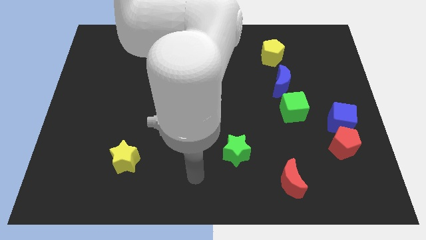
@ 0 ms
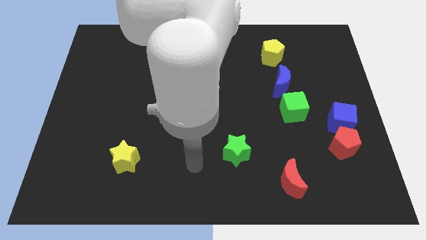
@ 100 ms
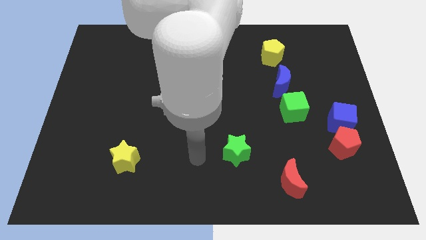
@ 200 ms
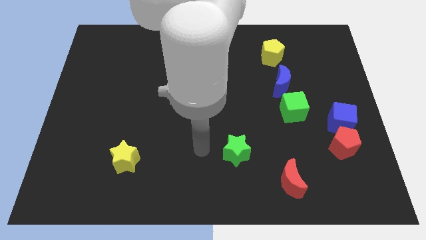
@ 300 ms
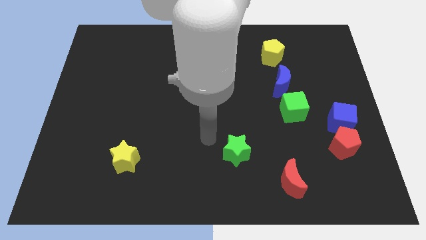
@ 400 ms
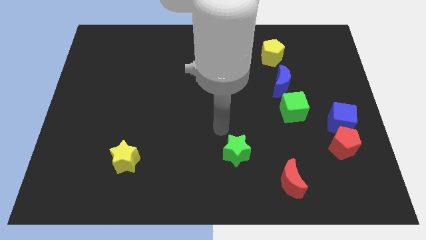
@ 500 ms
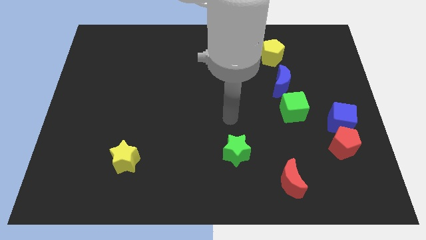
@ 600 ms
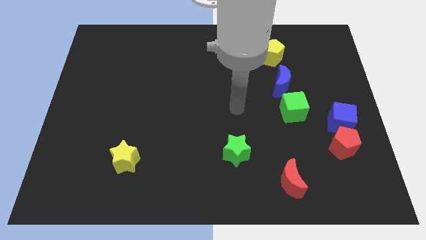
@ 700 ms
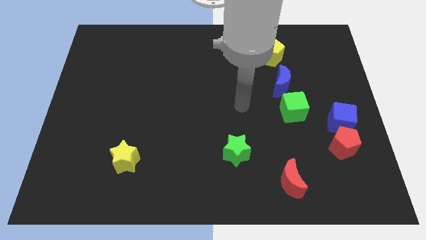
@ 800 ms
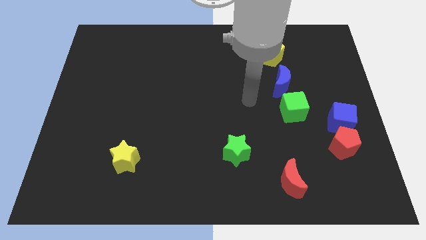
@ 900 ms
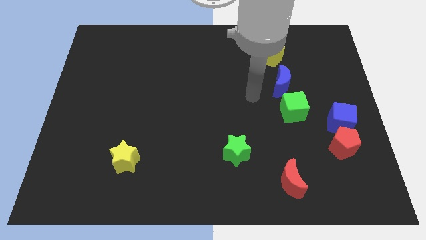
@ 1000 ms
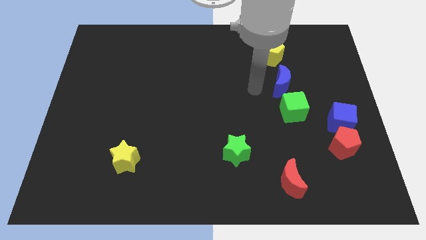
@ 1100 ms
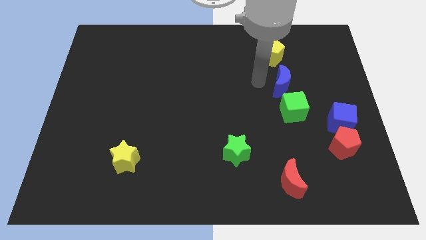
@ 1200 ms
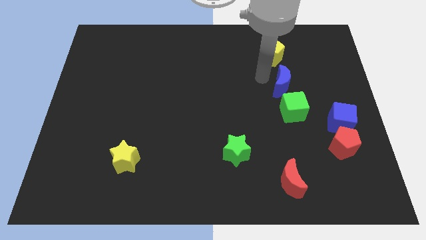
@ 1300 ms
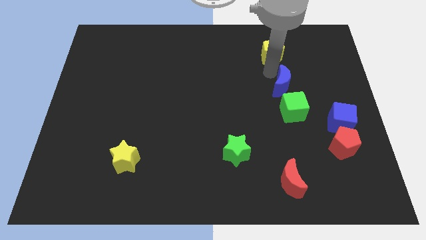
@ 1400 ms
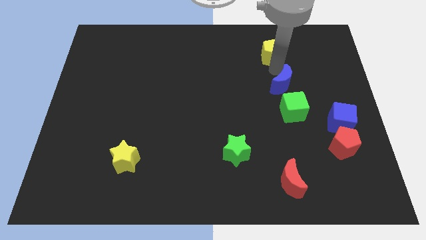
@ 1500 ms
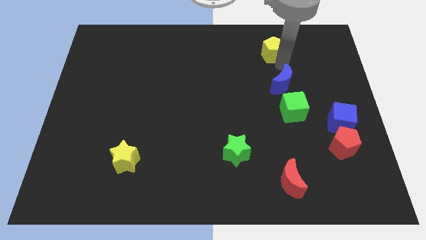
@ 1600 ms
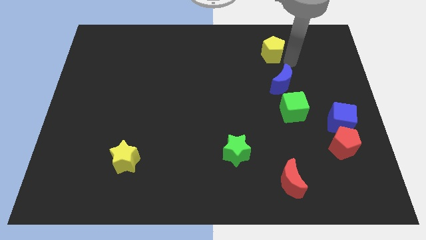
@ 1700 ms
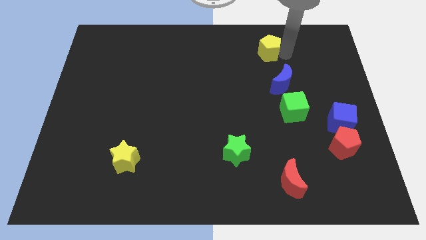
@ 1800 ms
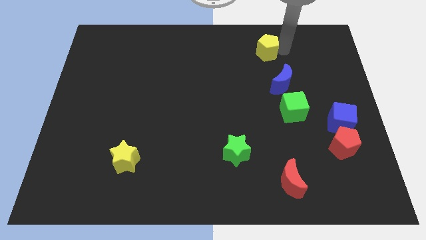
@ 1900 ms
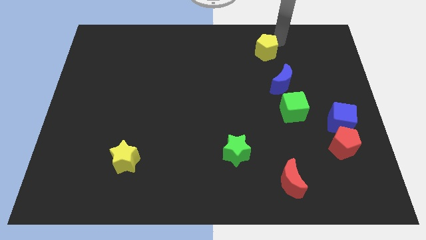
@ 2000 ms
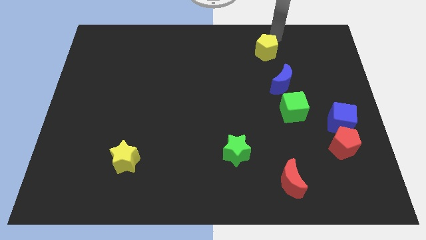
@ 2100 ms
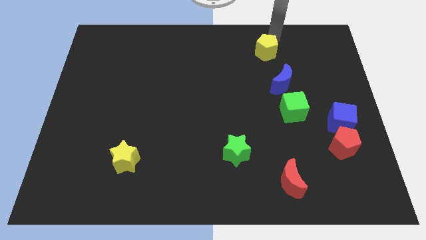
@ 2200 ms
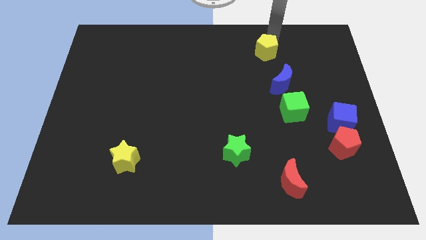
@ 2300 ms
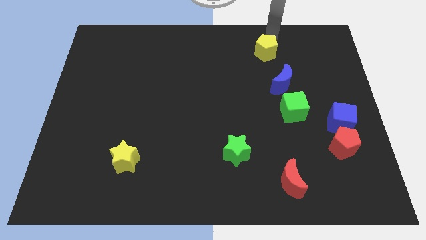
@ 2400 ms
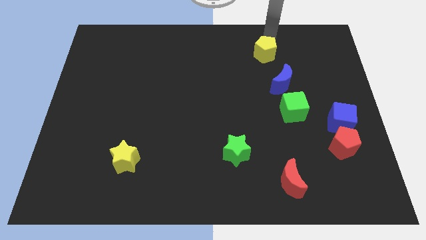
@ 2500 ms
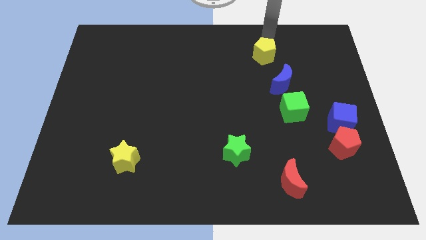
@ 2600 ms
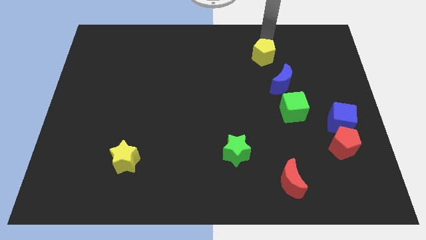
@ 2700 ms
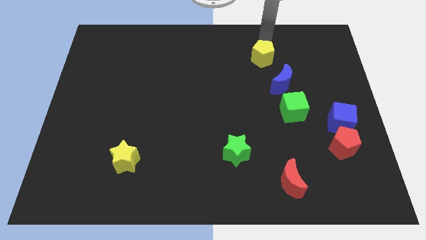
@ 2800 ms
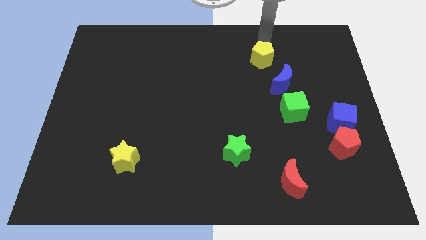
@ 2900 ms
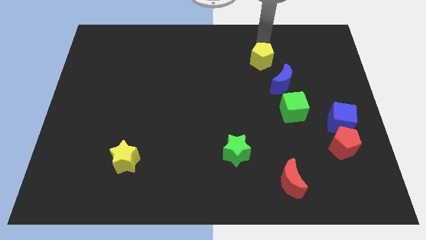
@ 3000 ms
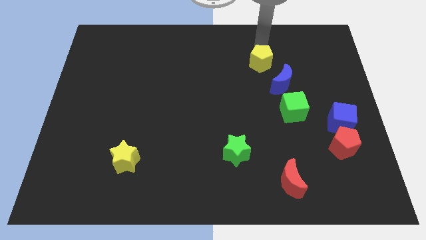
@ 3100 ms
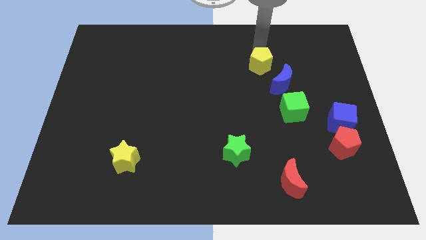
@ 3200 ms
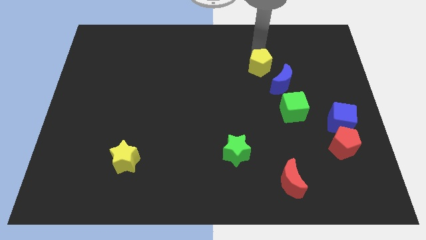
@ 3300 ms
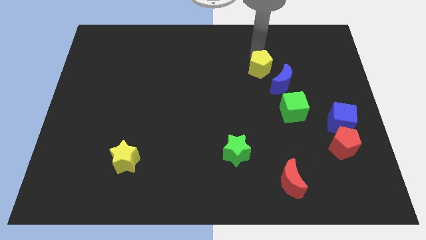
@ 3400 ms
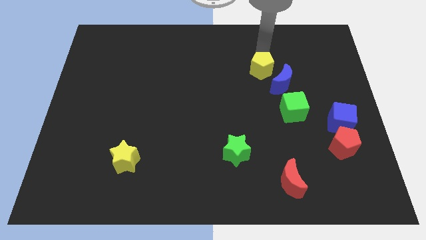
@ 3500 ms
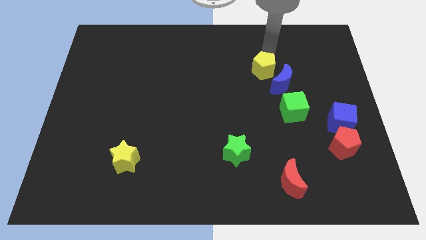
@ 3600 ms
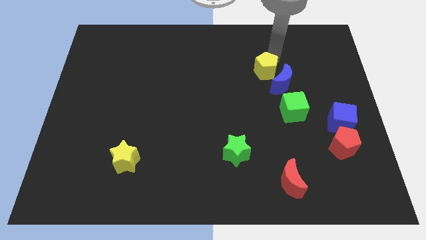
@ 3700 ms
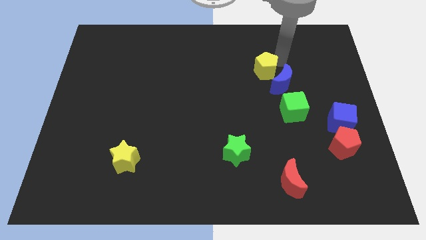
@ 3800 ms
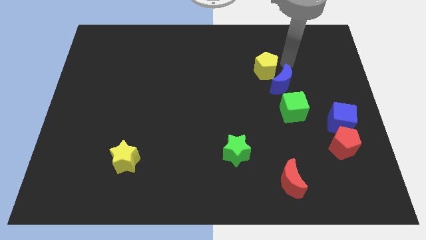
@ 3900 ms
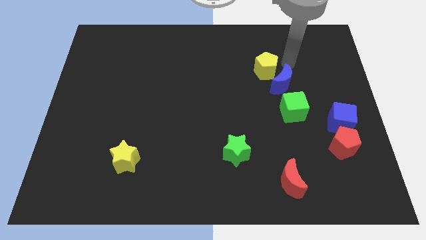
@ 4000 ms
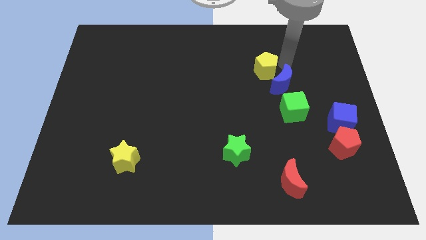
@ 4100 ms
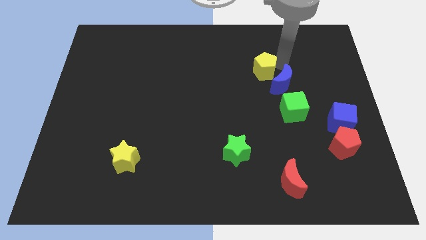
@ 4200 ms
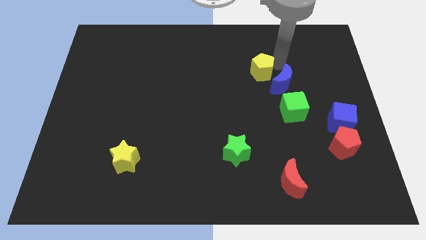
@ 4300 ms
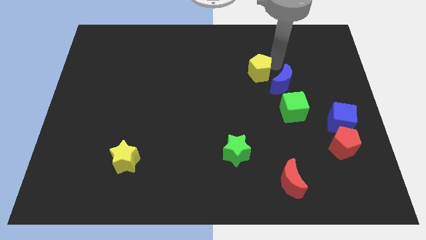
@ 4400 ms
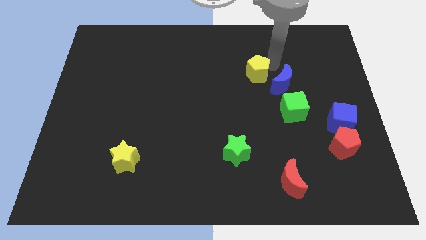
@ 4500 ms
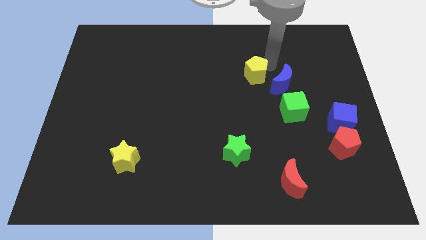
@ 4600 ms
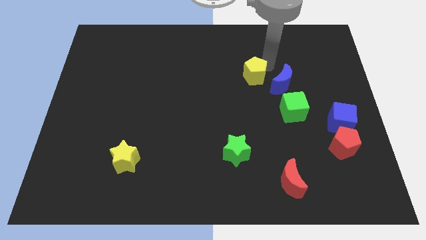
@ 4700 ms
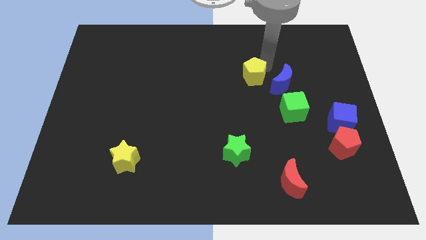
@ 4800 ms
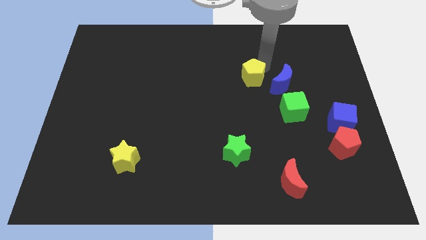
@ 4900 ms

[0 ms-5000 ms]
put the yellow pentagon to the center of the board

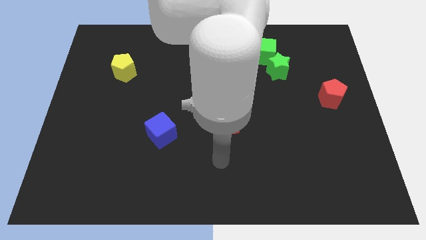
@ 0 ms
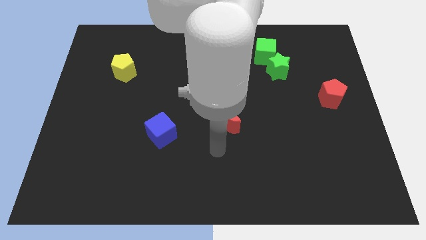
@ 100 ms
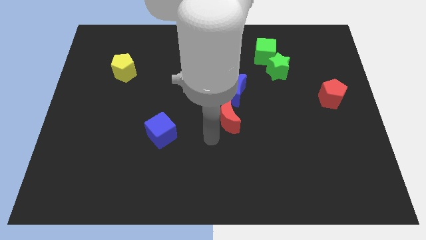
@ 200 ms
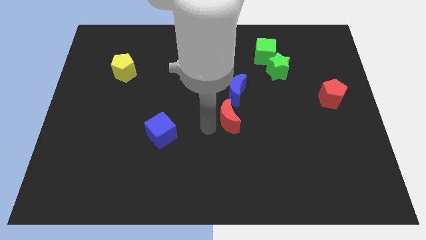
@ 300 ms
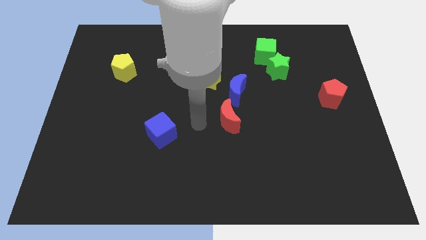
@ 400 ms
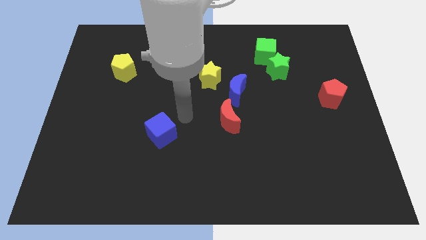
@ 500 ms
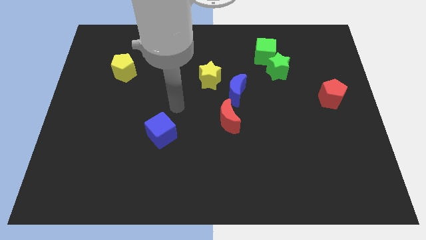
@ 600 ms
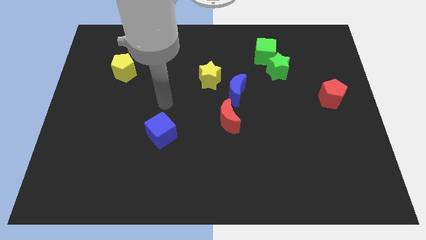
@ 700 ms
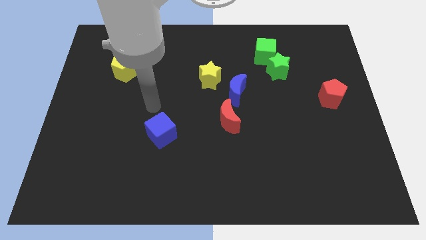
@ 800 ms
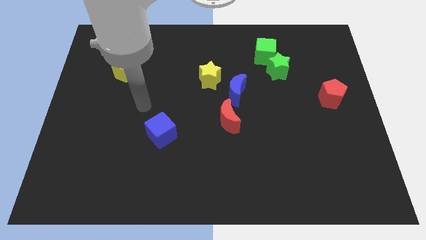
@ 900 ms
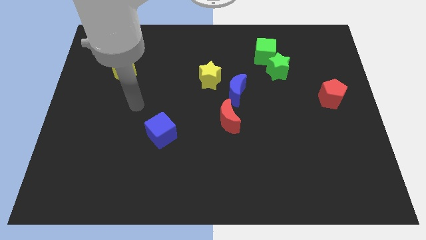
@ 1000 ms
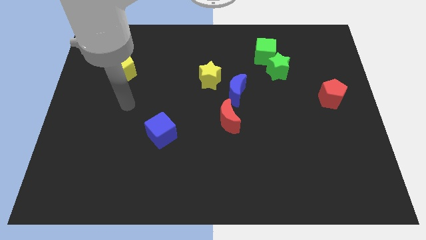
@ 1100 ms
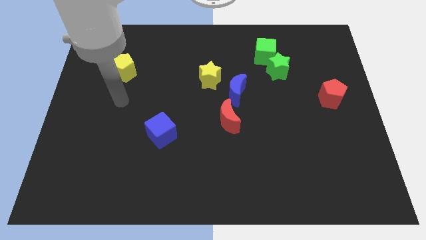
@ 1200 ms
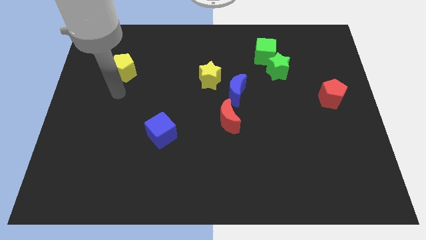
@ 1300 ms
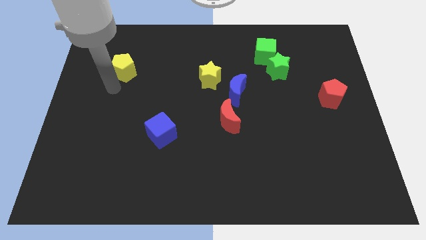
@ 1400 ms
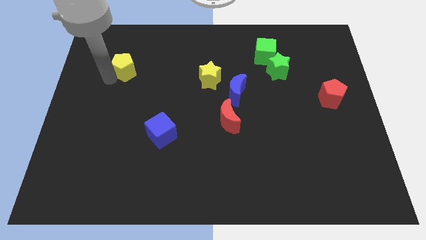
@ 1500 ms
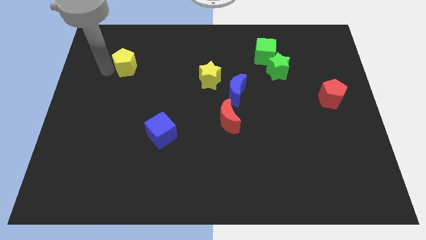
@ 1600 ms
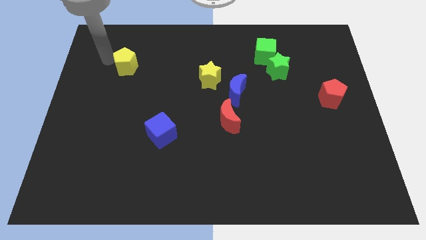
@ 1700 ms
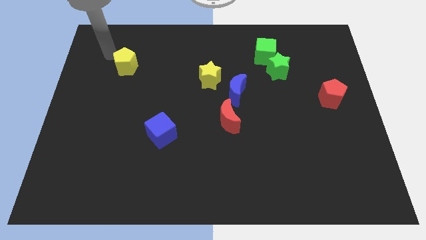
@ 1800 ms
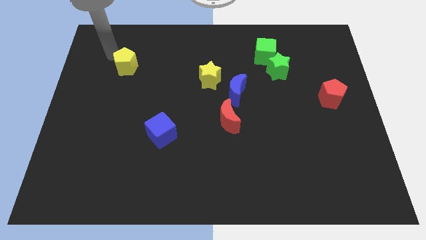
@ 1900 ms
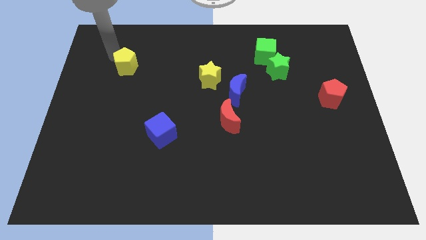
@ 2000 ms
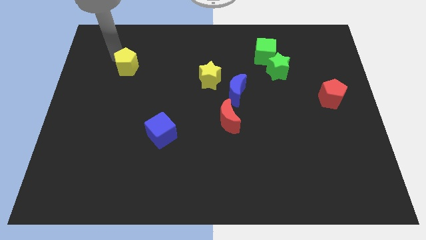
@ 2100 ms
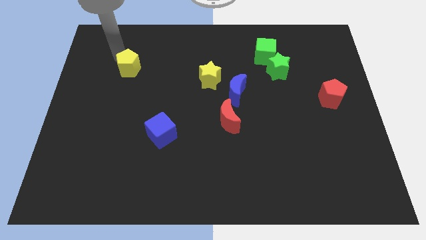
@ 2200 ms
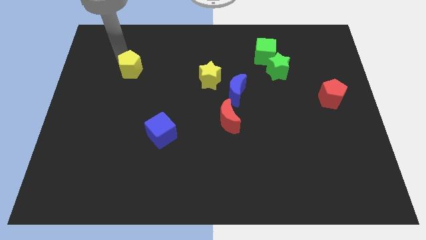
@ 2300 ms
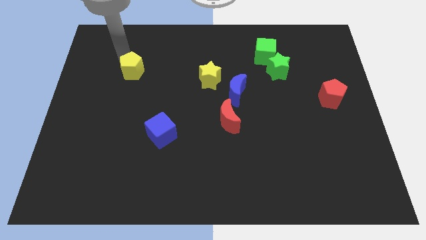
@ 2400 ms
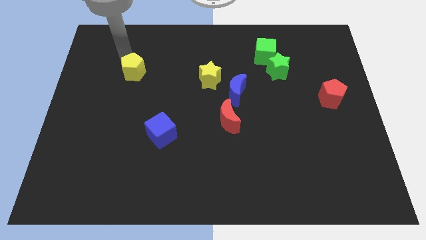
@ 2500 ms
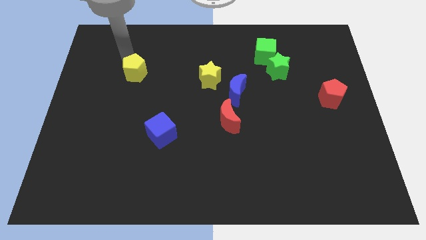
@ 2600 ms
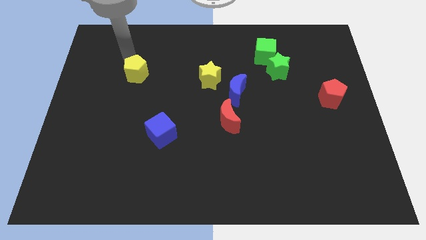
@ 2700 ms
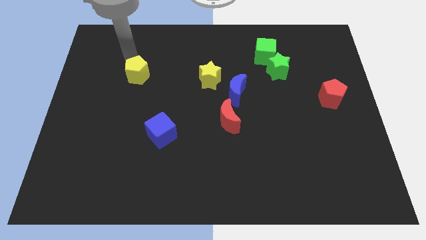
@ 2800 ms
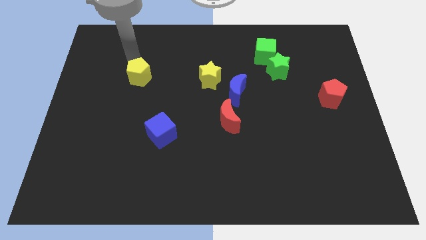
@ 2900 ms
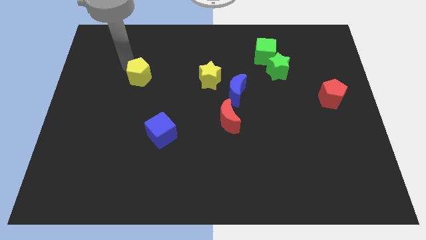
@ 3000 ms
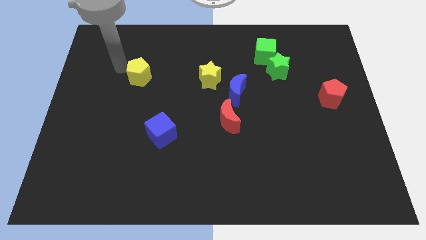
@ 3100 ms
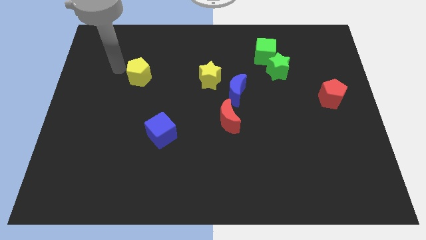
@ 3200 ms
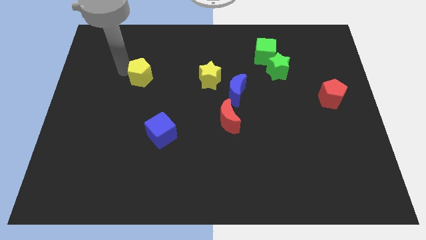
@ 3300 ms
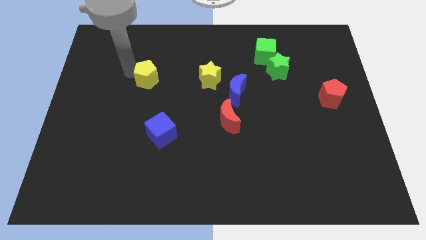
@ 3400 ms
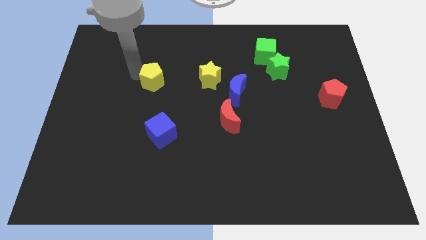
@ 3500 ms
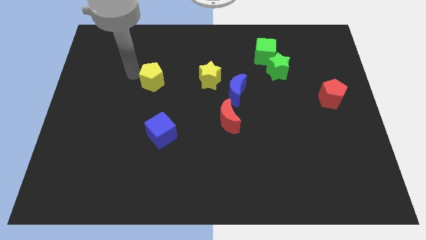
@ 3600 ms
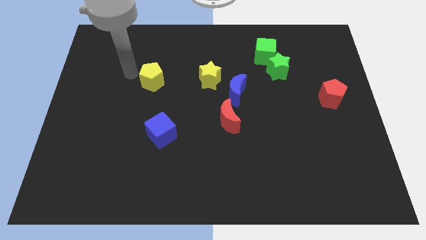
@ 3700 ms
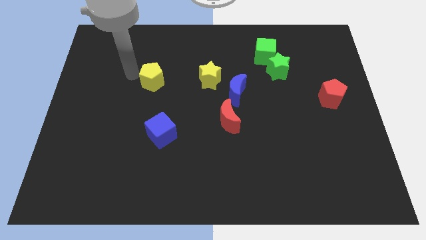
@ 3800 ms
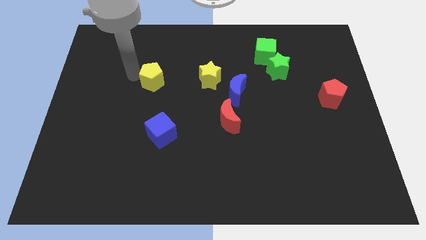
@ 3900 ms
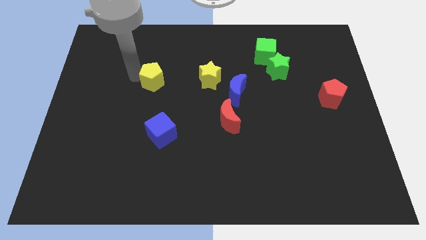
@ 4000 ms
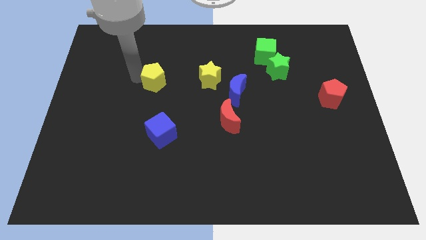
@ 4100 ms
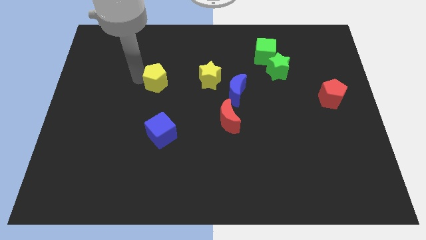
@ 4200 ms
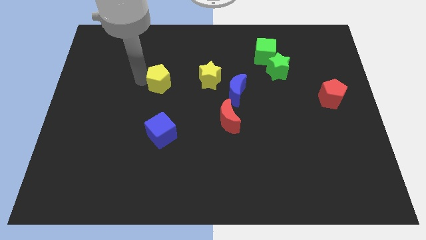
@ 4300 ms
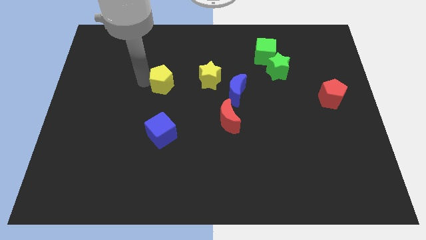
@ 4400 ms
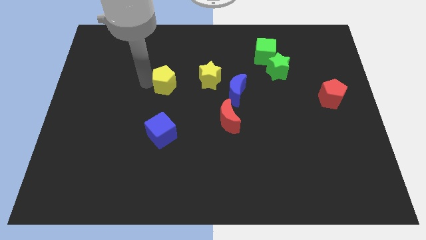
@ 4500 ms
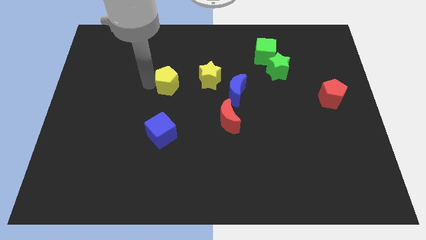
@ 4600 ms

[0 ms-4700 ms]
slide the yellow pentagon to the middle of the board
